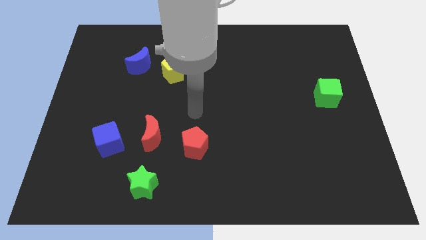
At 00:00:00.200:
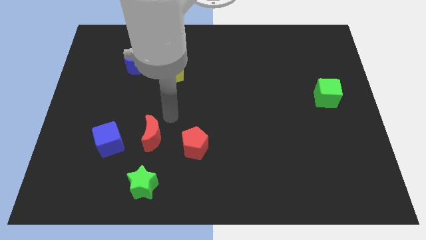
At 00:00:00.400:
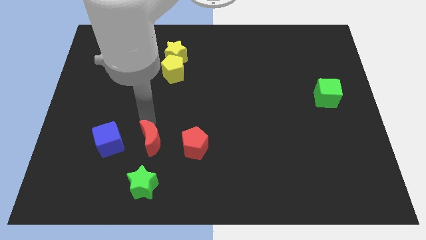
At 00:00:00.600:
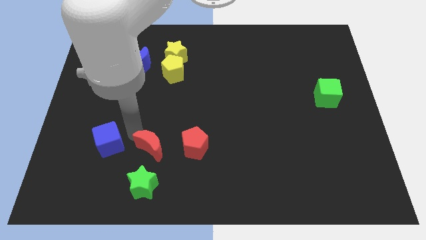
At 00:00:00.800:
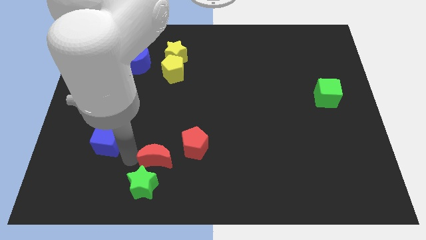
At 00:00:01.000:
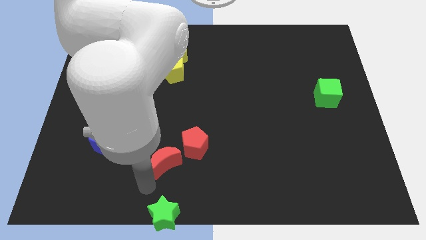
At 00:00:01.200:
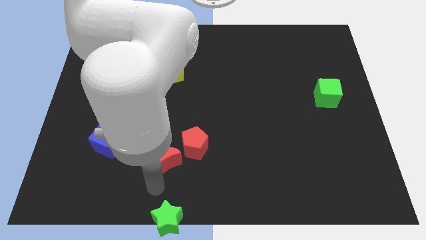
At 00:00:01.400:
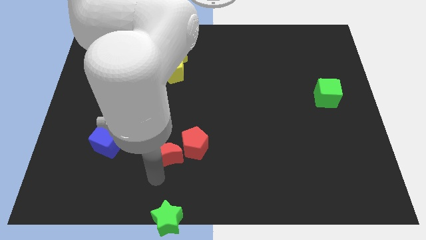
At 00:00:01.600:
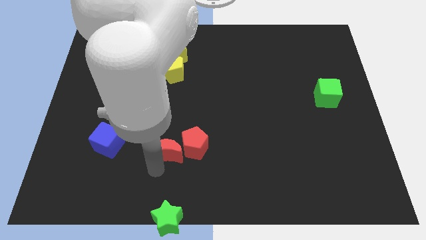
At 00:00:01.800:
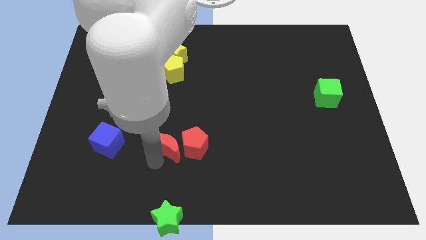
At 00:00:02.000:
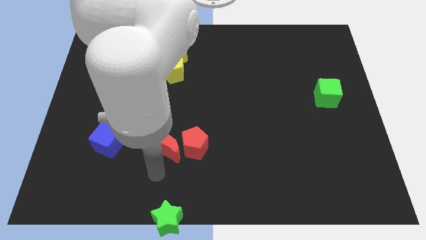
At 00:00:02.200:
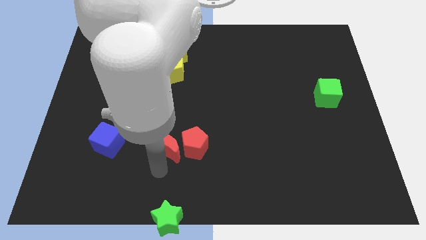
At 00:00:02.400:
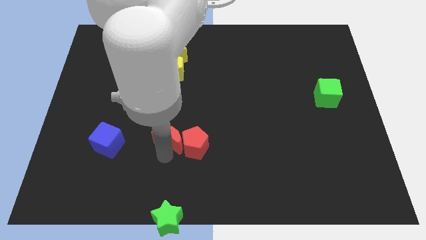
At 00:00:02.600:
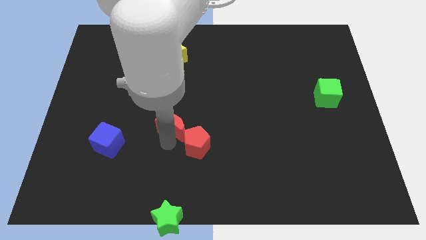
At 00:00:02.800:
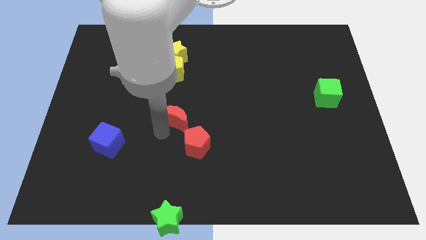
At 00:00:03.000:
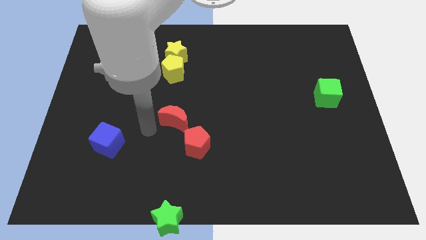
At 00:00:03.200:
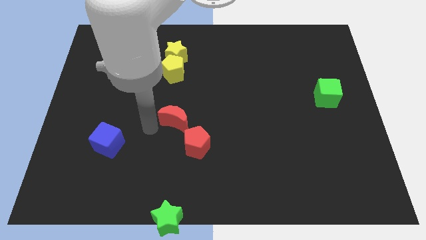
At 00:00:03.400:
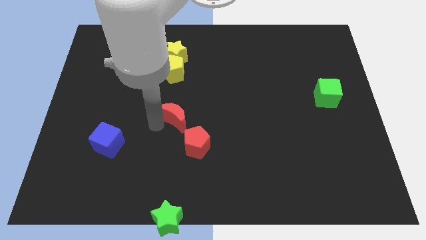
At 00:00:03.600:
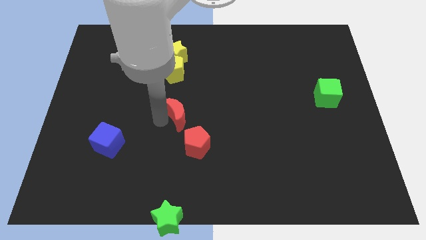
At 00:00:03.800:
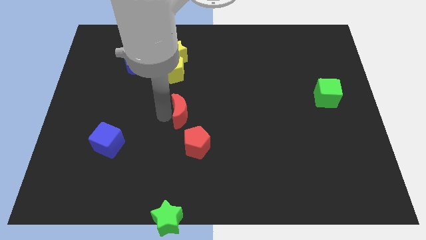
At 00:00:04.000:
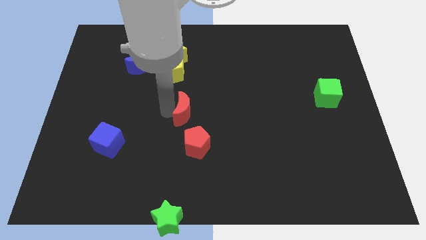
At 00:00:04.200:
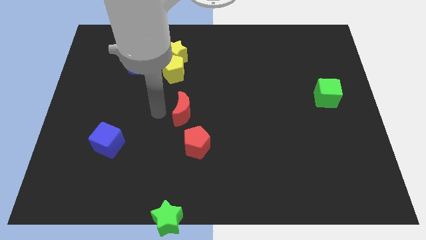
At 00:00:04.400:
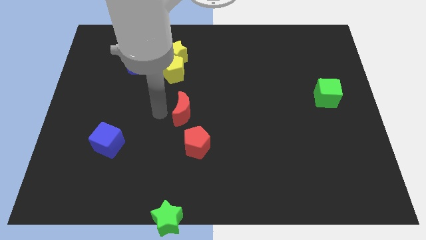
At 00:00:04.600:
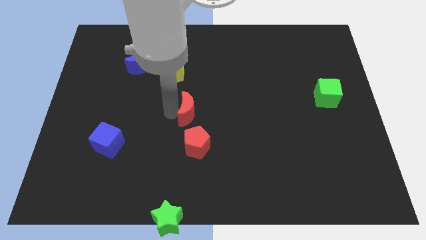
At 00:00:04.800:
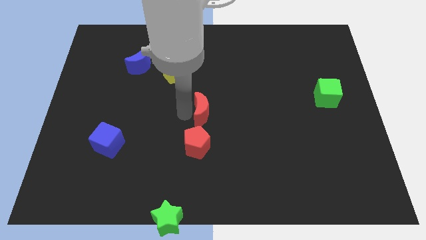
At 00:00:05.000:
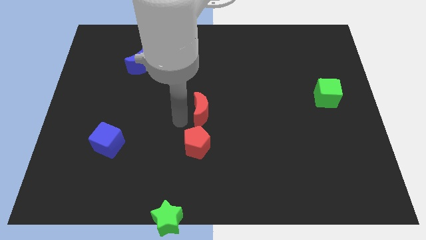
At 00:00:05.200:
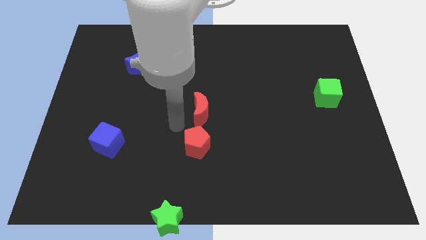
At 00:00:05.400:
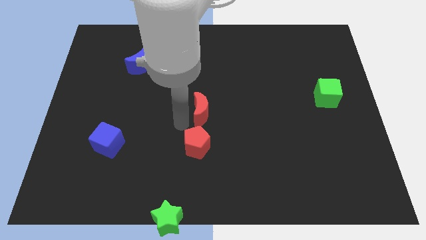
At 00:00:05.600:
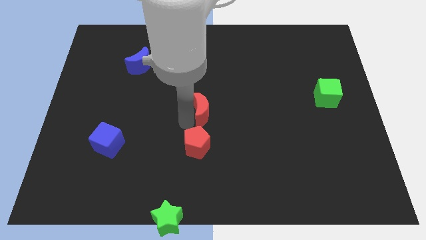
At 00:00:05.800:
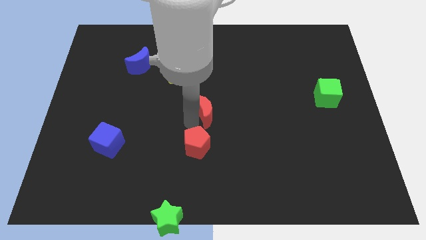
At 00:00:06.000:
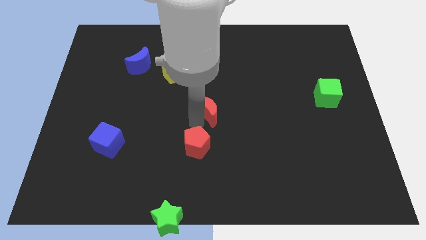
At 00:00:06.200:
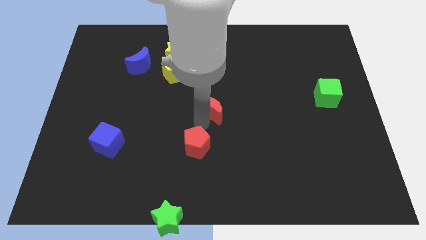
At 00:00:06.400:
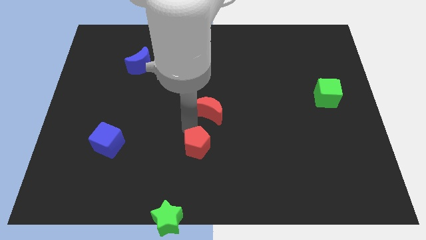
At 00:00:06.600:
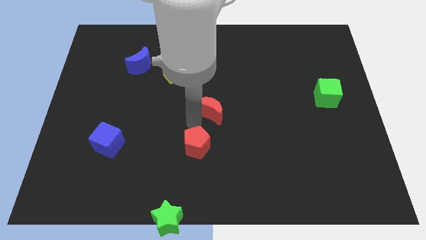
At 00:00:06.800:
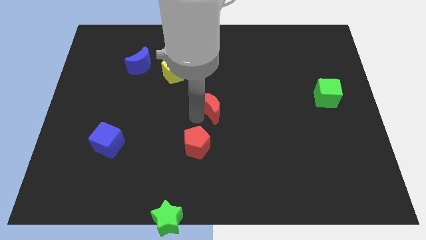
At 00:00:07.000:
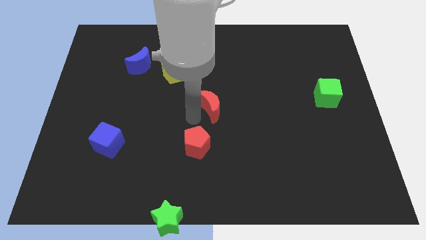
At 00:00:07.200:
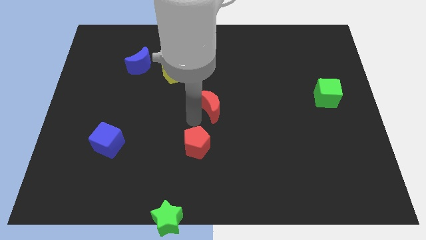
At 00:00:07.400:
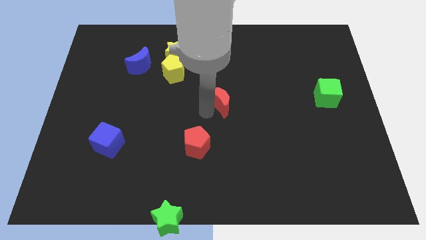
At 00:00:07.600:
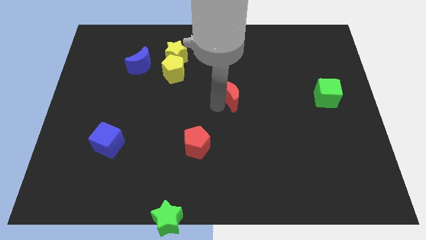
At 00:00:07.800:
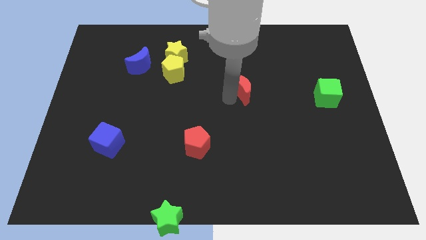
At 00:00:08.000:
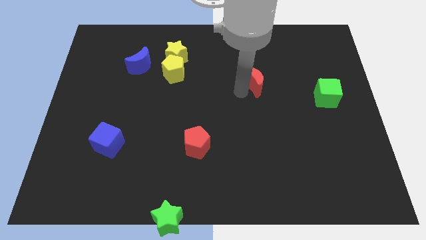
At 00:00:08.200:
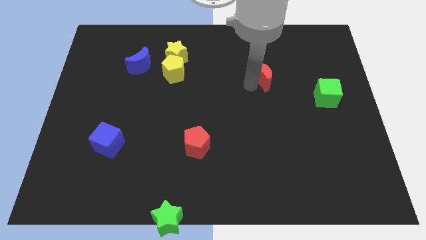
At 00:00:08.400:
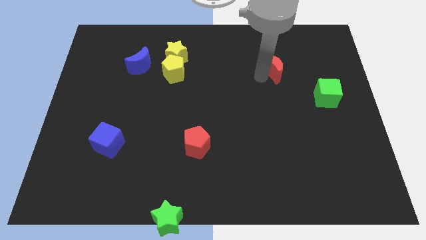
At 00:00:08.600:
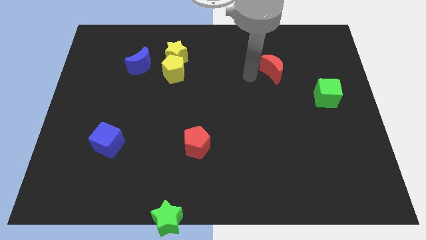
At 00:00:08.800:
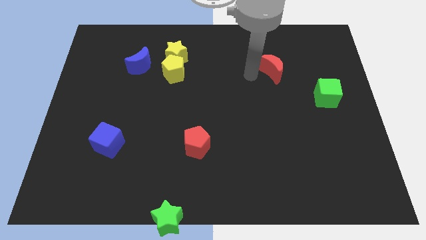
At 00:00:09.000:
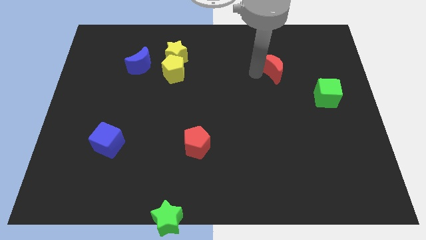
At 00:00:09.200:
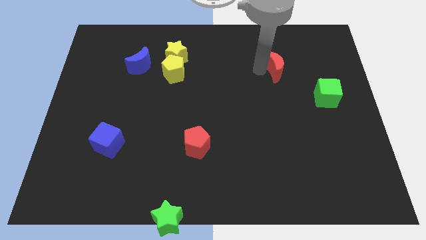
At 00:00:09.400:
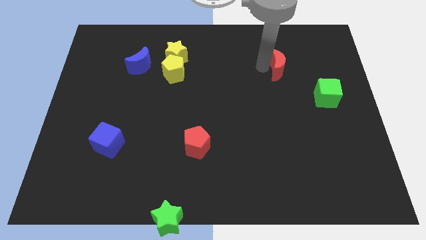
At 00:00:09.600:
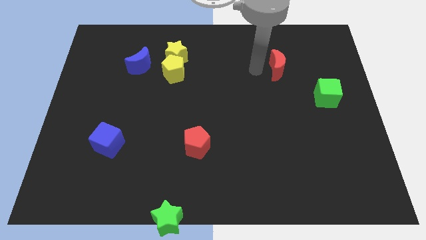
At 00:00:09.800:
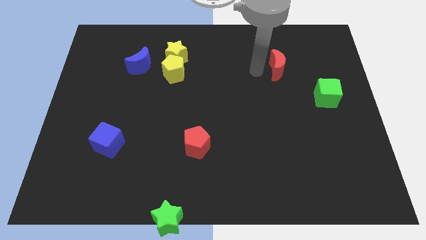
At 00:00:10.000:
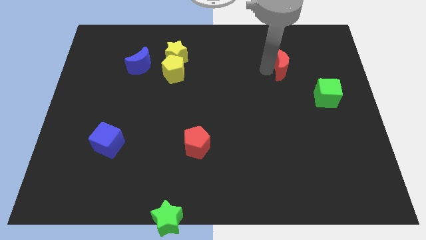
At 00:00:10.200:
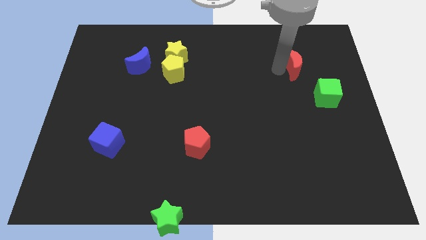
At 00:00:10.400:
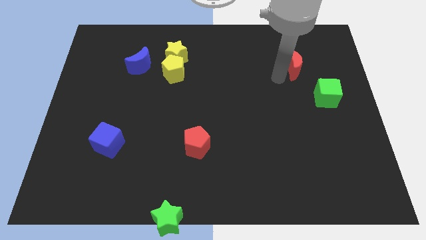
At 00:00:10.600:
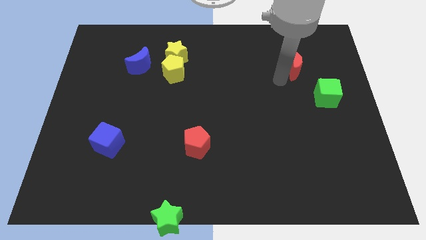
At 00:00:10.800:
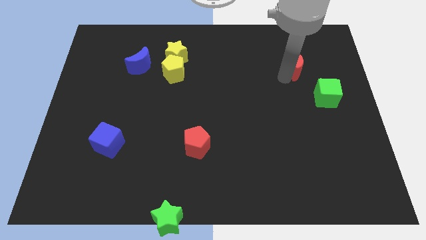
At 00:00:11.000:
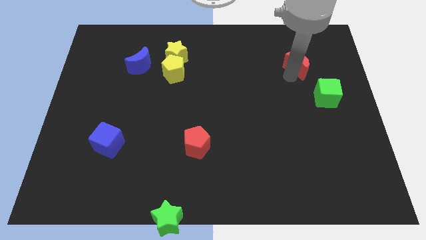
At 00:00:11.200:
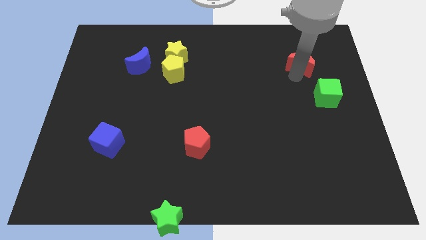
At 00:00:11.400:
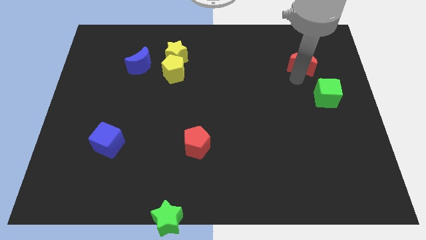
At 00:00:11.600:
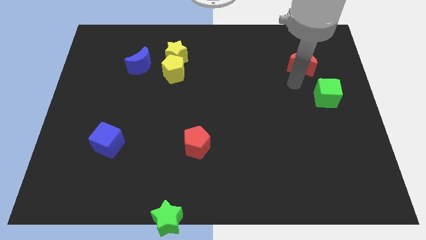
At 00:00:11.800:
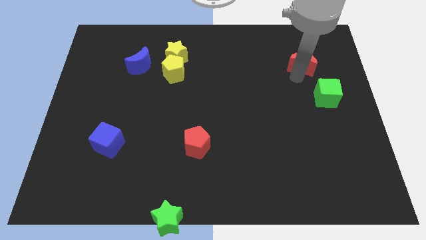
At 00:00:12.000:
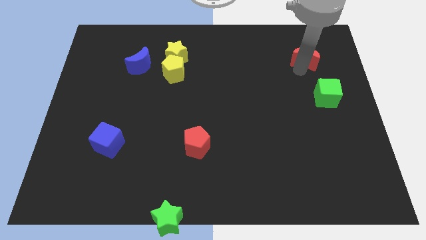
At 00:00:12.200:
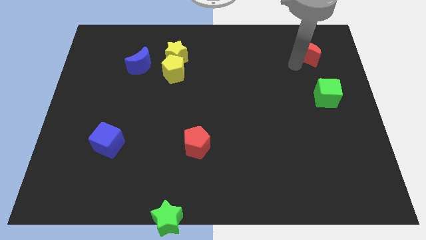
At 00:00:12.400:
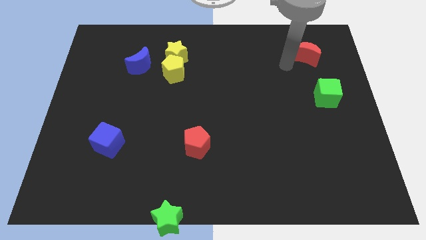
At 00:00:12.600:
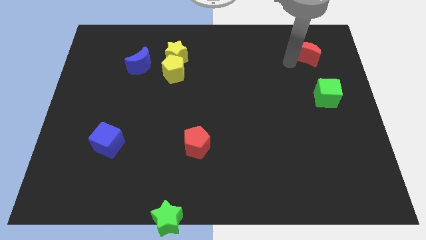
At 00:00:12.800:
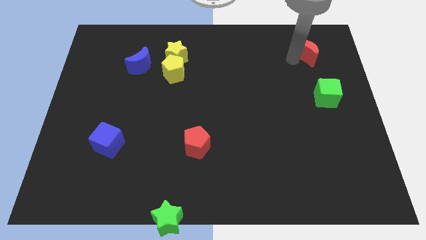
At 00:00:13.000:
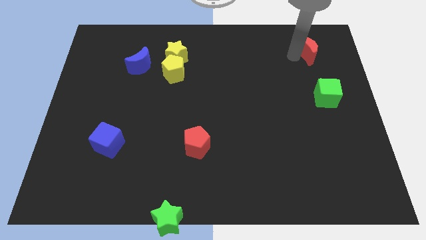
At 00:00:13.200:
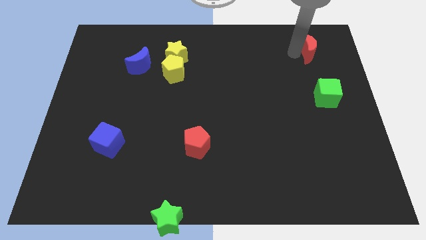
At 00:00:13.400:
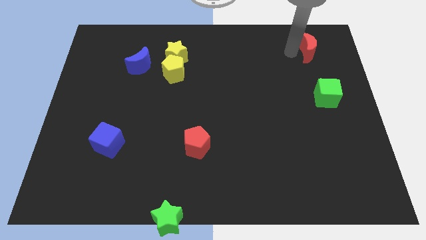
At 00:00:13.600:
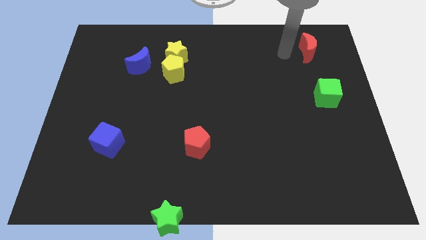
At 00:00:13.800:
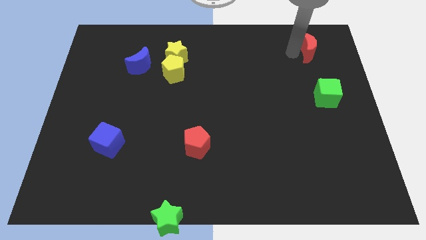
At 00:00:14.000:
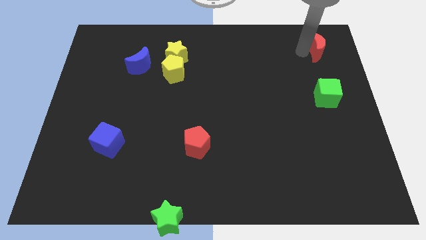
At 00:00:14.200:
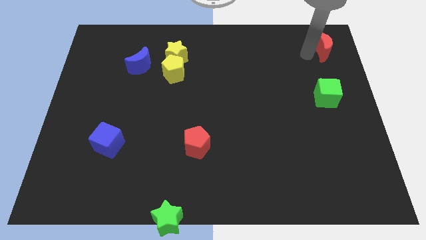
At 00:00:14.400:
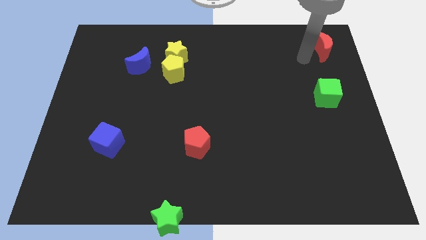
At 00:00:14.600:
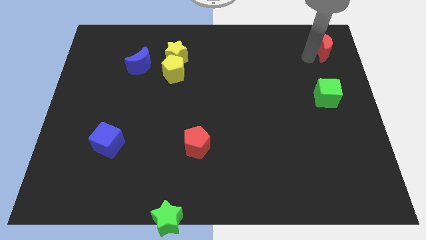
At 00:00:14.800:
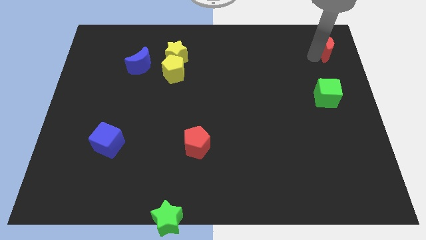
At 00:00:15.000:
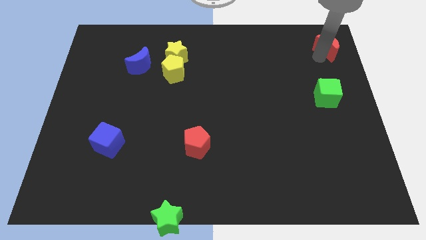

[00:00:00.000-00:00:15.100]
slide the red moon to the top right corner
